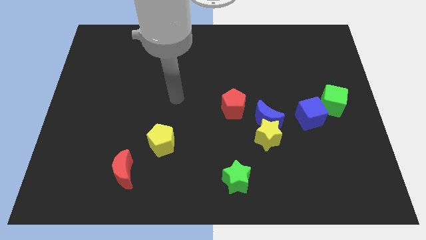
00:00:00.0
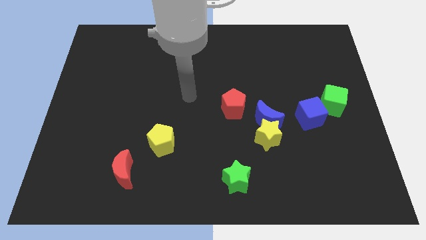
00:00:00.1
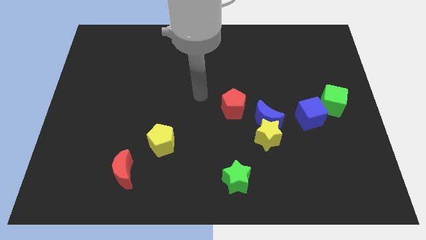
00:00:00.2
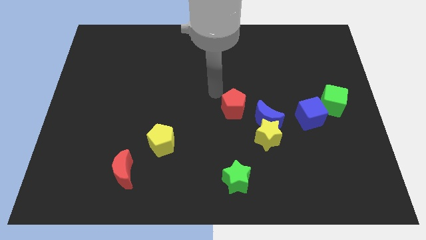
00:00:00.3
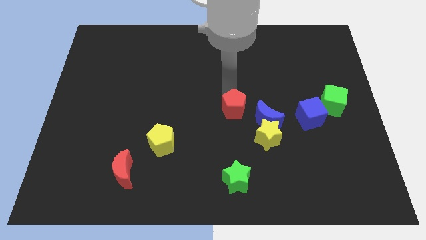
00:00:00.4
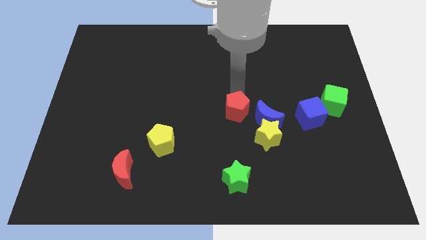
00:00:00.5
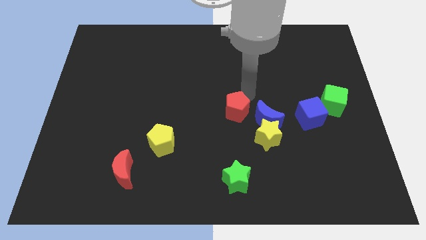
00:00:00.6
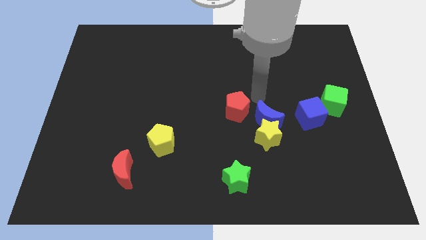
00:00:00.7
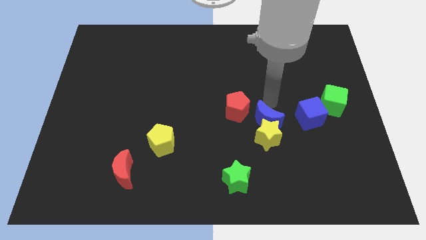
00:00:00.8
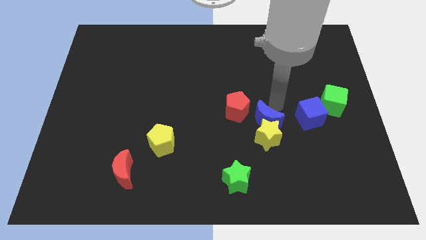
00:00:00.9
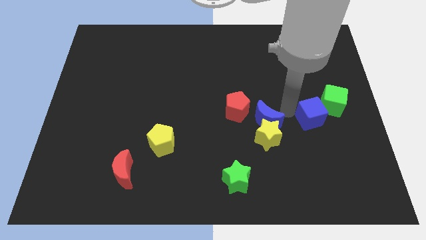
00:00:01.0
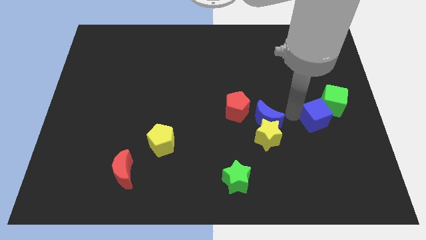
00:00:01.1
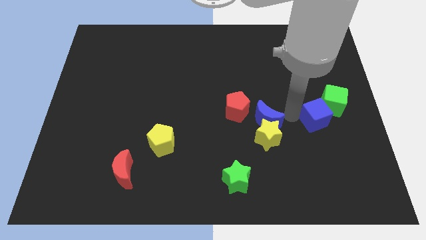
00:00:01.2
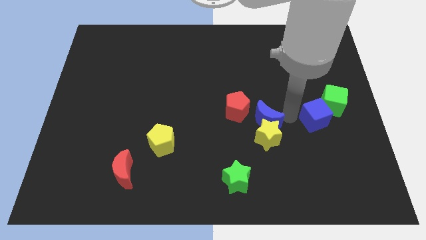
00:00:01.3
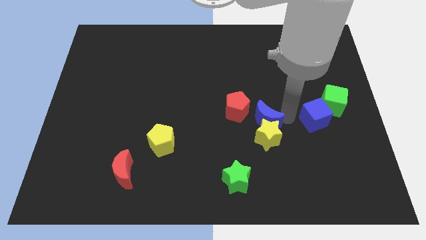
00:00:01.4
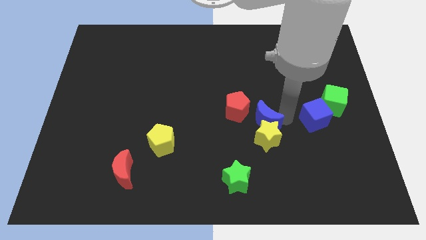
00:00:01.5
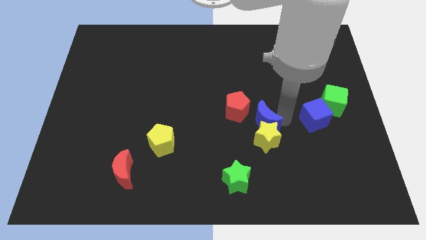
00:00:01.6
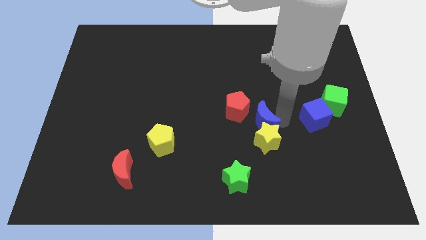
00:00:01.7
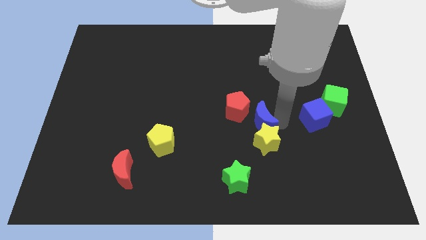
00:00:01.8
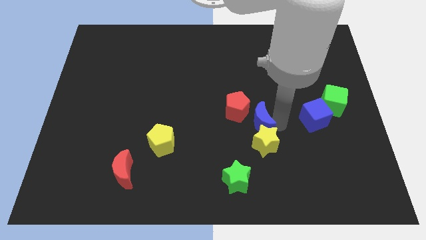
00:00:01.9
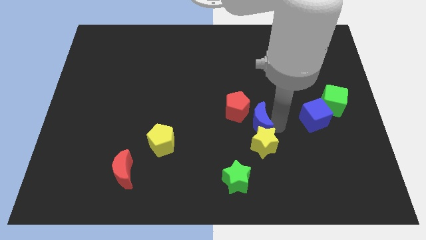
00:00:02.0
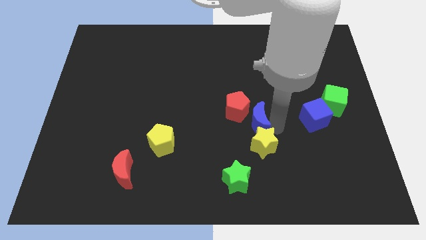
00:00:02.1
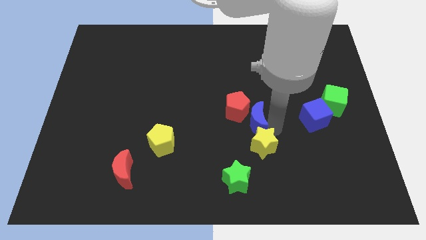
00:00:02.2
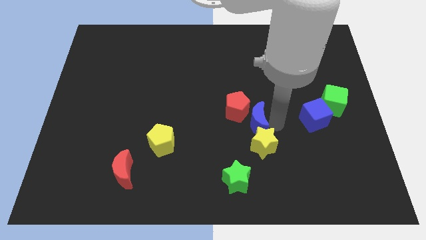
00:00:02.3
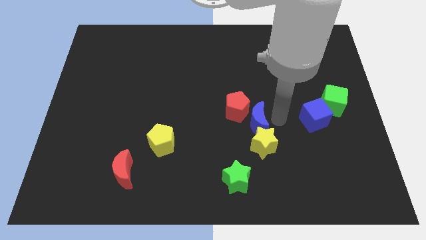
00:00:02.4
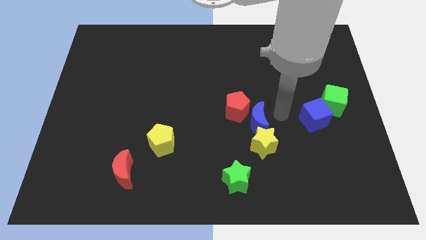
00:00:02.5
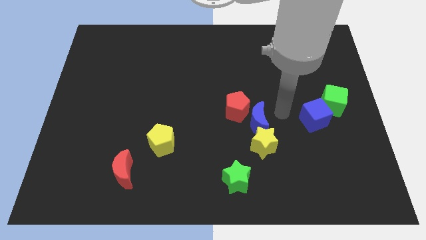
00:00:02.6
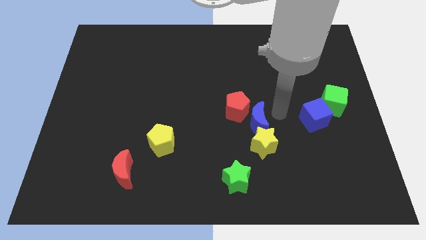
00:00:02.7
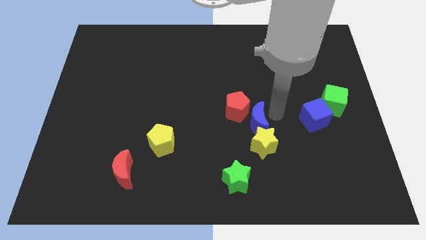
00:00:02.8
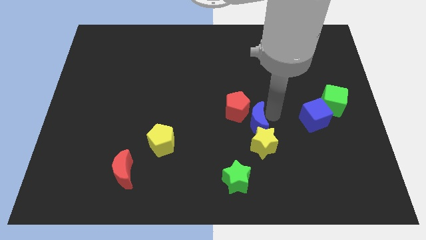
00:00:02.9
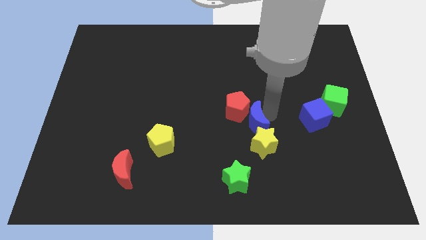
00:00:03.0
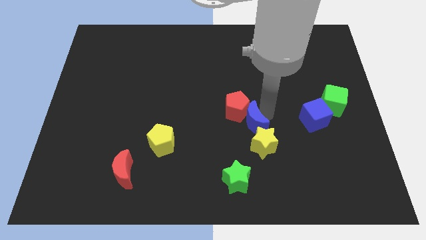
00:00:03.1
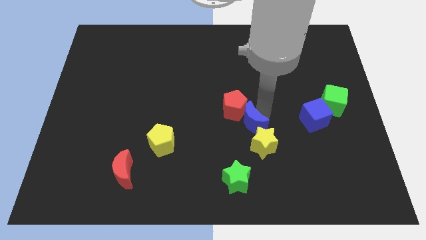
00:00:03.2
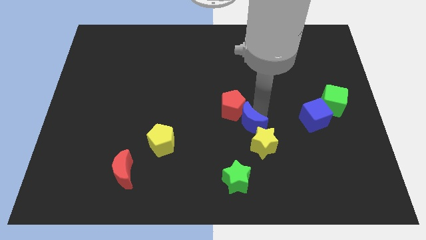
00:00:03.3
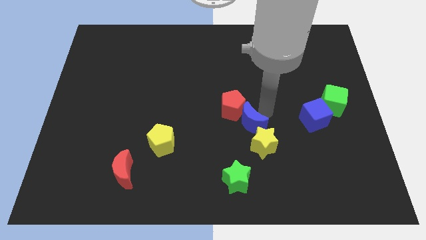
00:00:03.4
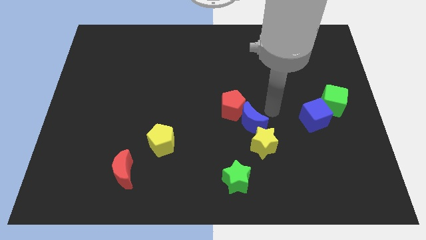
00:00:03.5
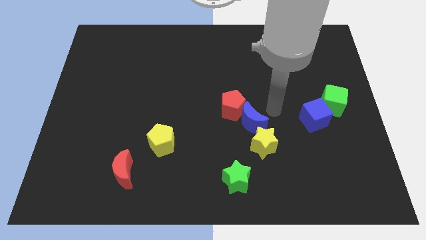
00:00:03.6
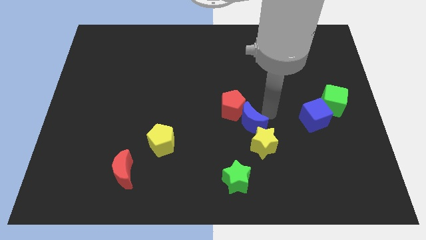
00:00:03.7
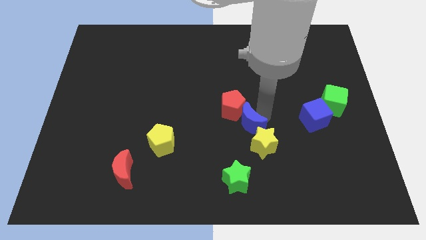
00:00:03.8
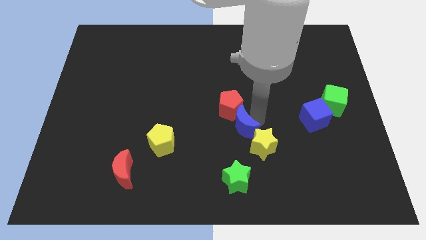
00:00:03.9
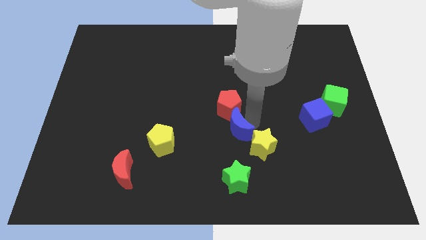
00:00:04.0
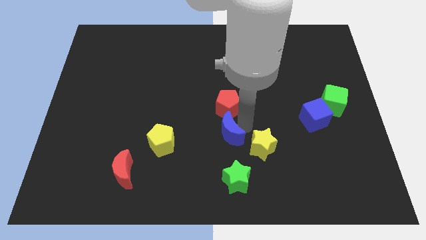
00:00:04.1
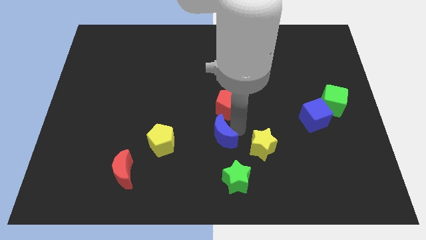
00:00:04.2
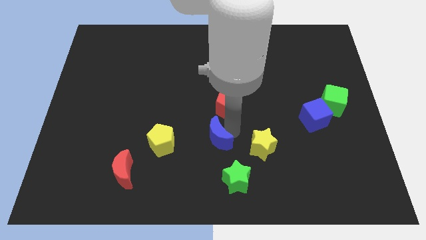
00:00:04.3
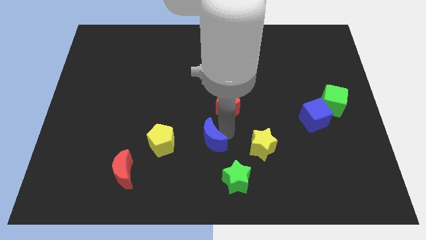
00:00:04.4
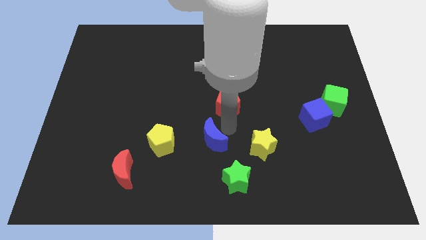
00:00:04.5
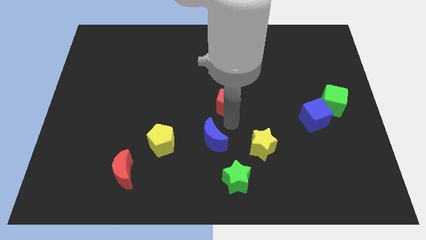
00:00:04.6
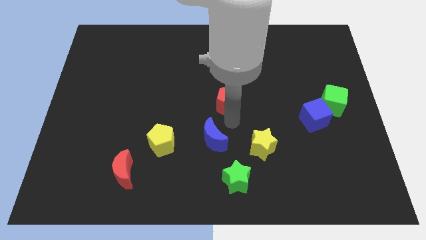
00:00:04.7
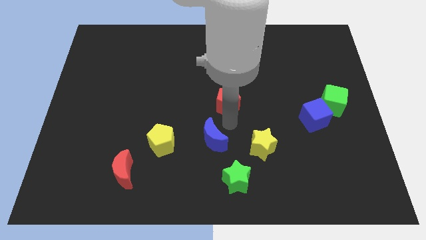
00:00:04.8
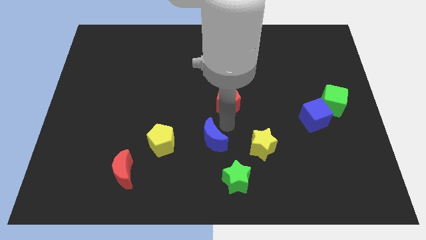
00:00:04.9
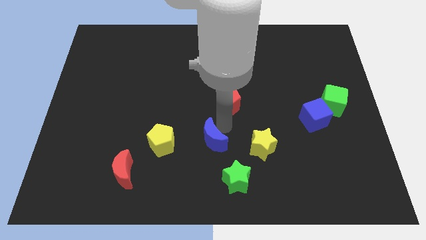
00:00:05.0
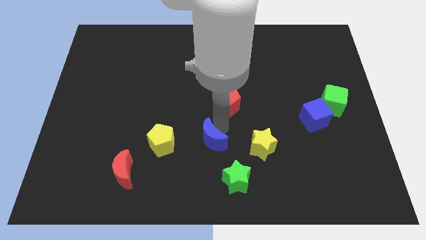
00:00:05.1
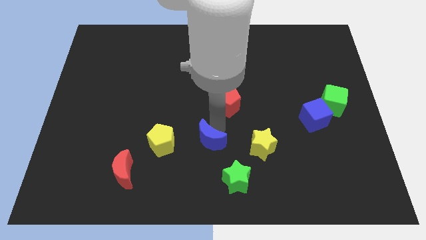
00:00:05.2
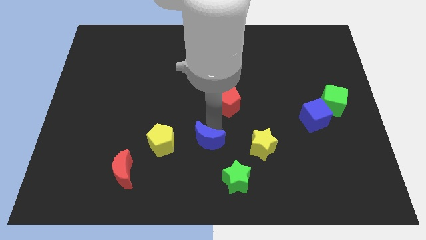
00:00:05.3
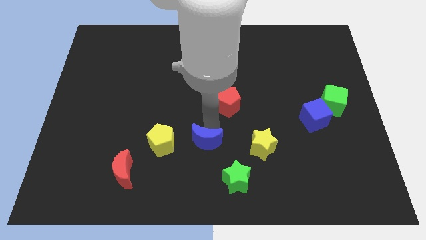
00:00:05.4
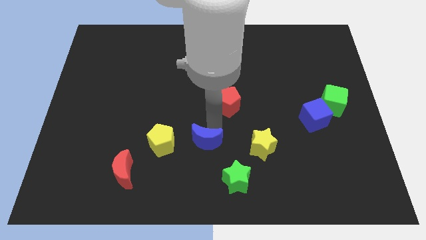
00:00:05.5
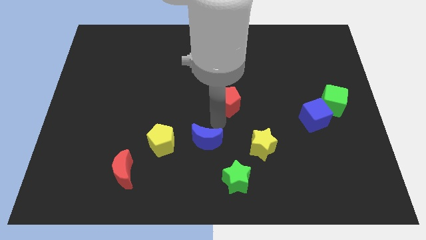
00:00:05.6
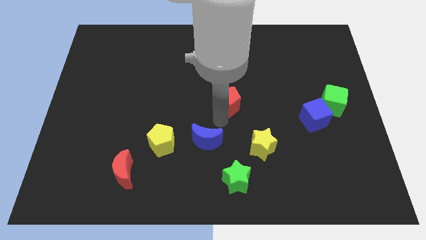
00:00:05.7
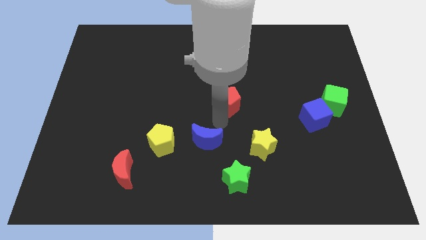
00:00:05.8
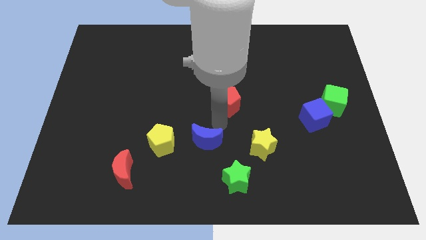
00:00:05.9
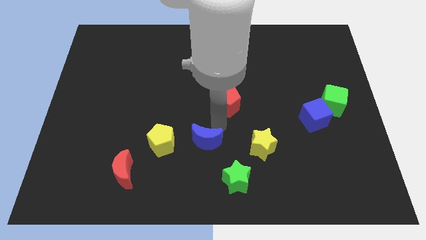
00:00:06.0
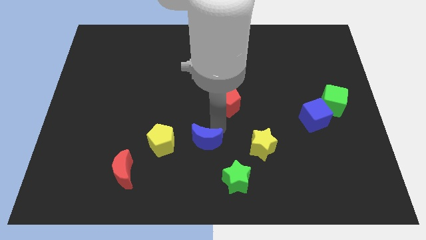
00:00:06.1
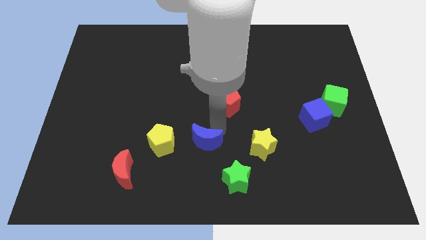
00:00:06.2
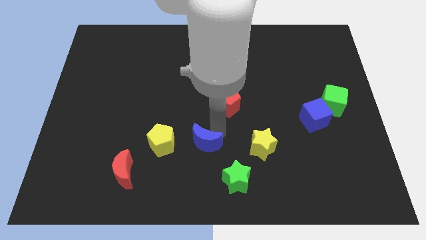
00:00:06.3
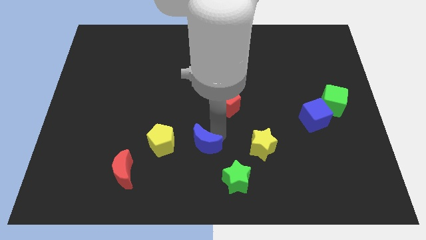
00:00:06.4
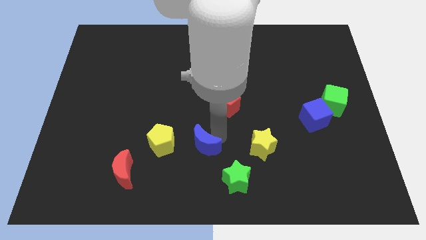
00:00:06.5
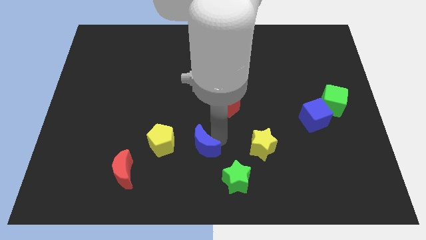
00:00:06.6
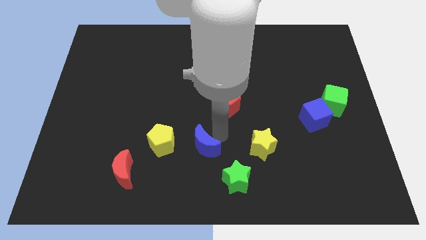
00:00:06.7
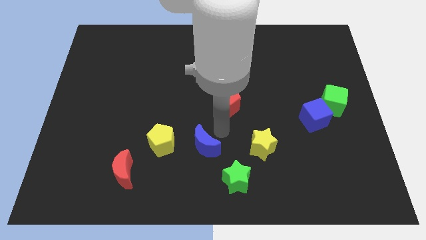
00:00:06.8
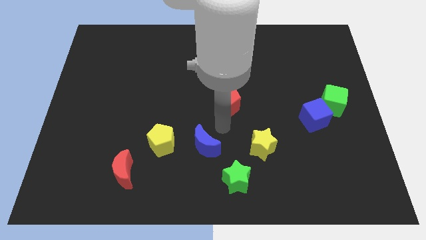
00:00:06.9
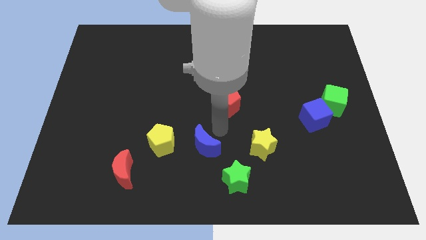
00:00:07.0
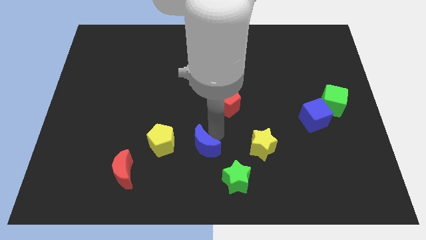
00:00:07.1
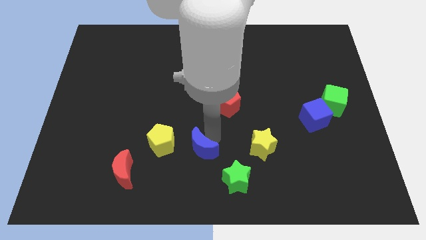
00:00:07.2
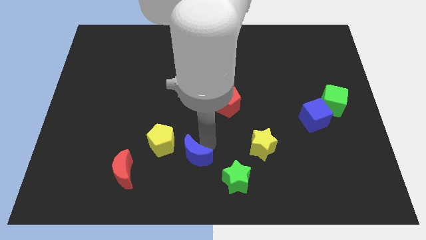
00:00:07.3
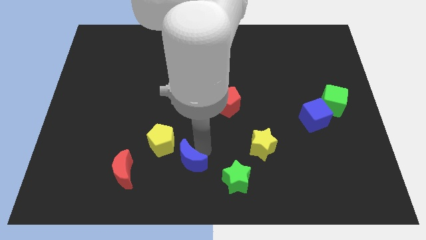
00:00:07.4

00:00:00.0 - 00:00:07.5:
slide the blue moon to the right side of the red moon

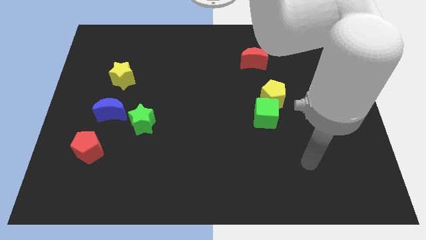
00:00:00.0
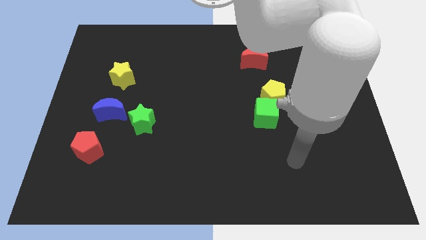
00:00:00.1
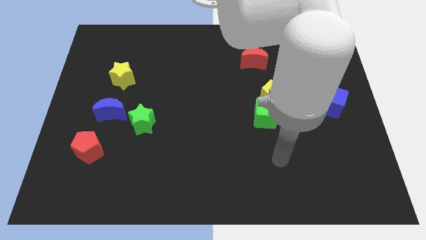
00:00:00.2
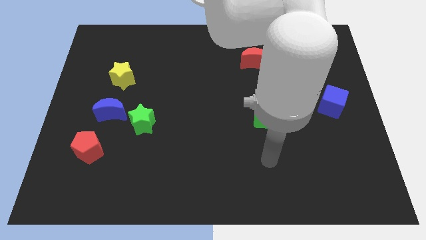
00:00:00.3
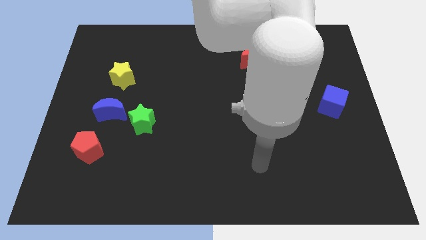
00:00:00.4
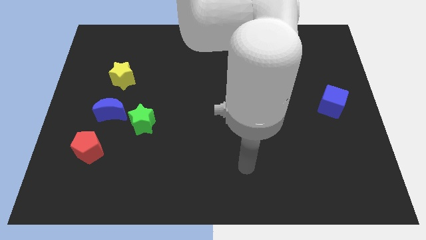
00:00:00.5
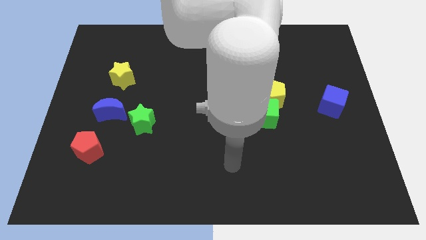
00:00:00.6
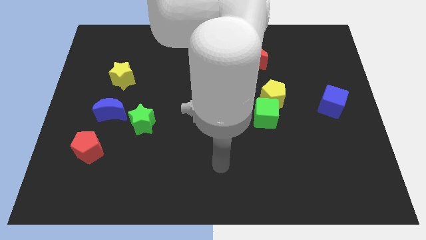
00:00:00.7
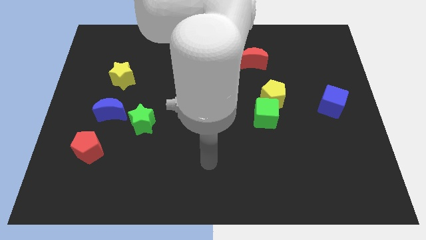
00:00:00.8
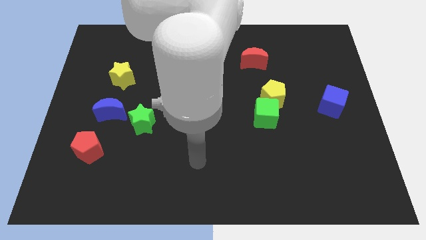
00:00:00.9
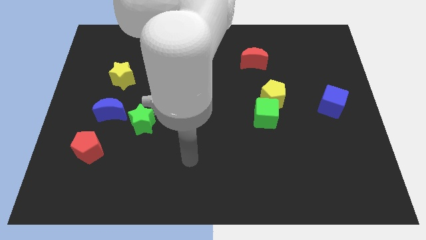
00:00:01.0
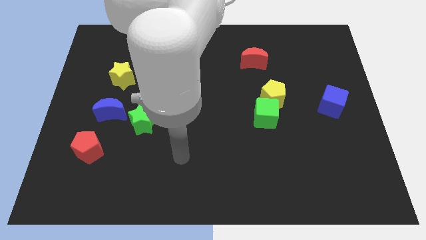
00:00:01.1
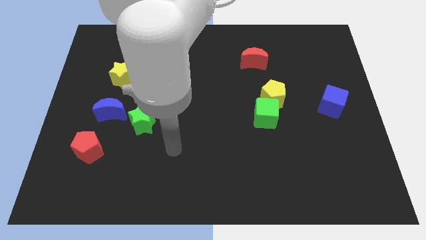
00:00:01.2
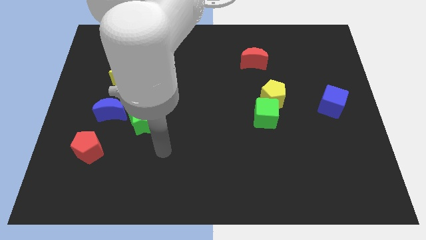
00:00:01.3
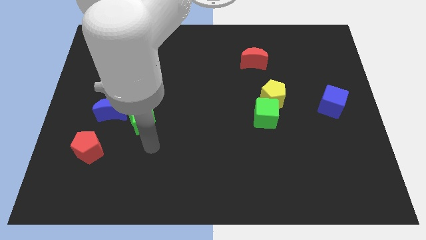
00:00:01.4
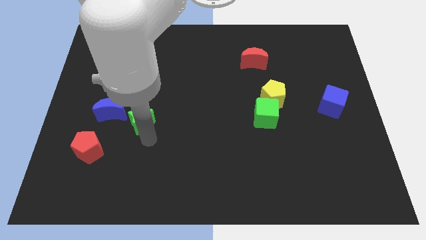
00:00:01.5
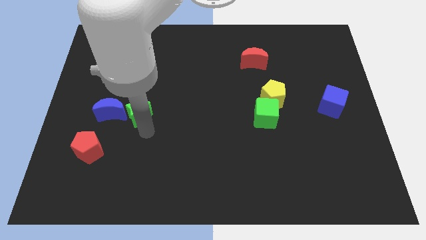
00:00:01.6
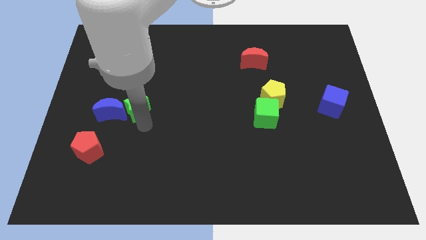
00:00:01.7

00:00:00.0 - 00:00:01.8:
move the green star to the top right of the blue moon
